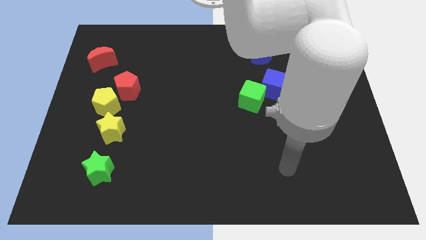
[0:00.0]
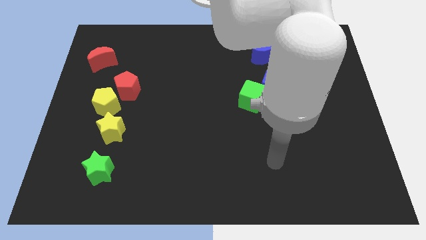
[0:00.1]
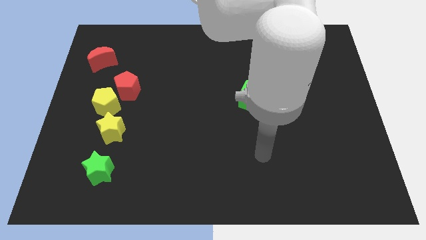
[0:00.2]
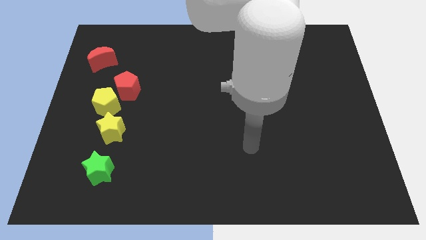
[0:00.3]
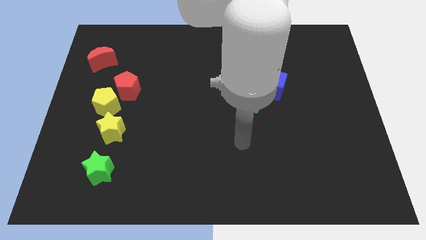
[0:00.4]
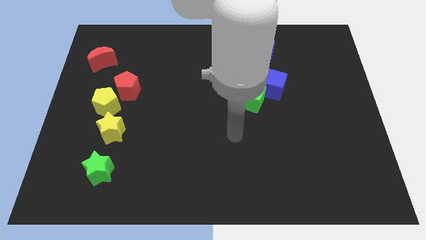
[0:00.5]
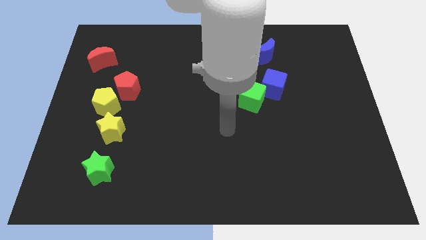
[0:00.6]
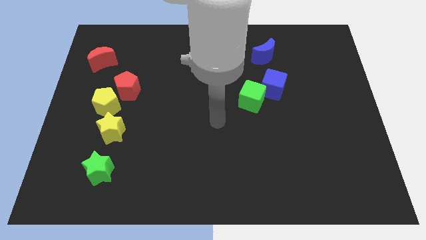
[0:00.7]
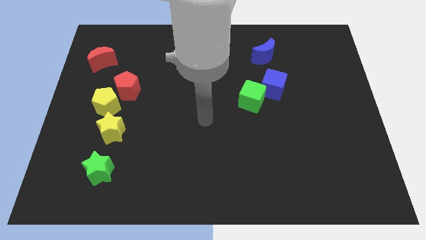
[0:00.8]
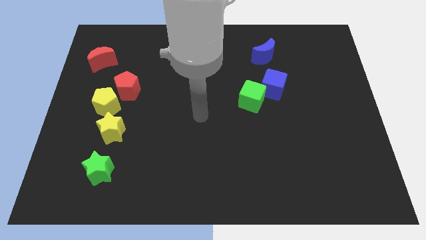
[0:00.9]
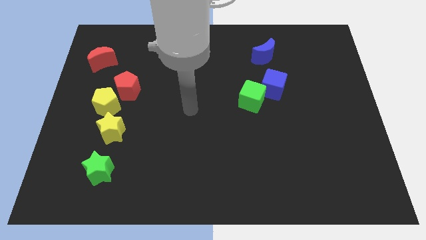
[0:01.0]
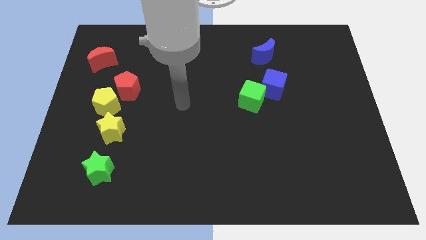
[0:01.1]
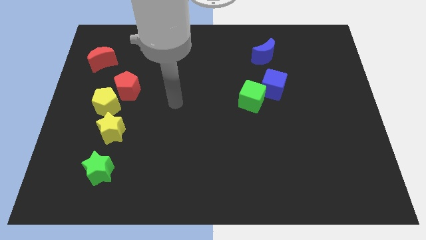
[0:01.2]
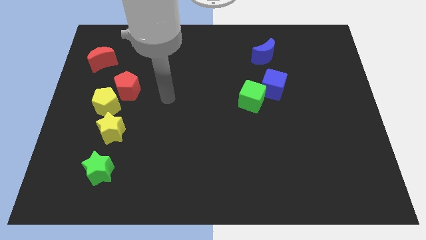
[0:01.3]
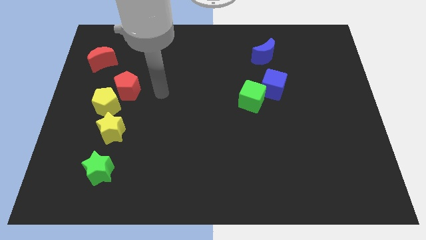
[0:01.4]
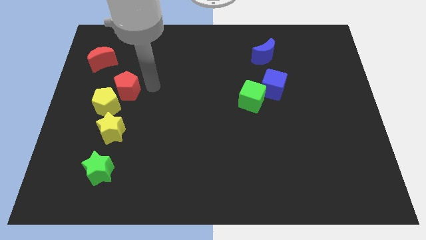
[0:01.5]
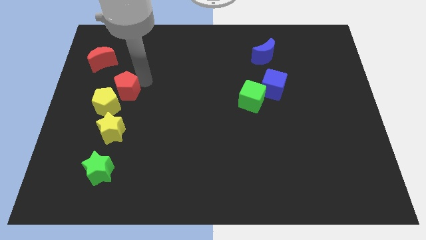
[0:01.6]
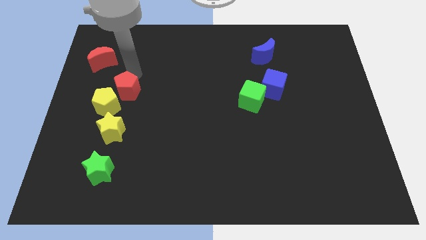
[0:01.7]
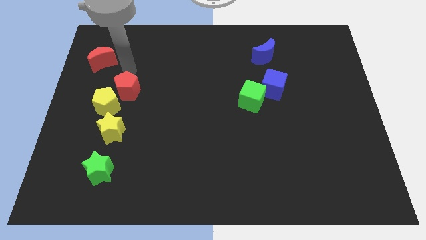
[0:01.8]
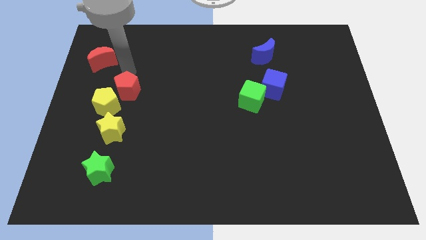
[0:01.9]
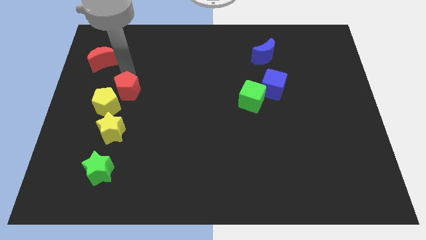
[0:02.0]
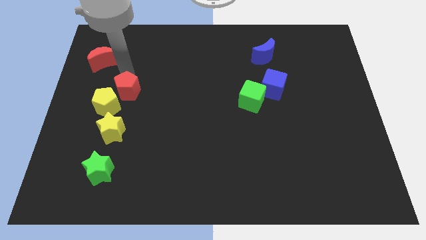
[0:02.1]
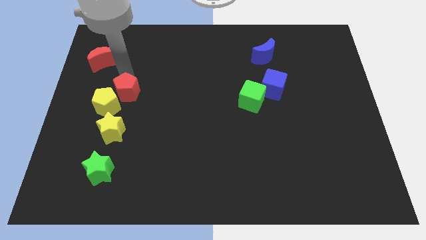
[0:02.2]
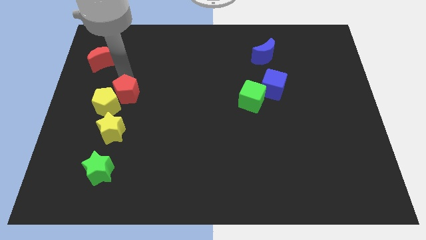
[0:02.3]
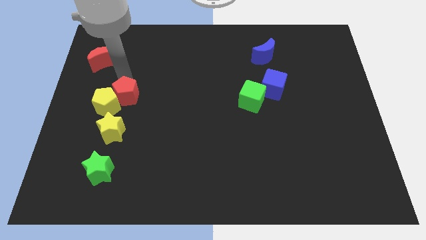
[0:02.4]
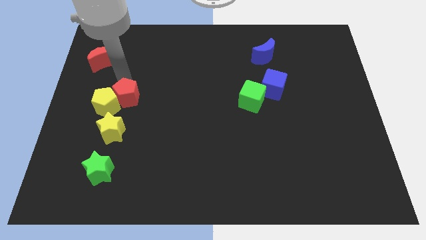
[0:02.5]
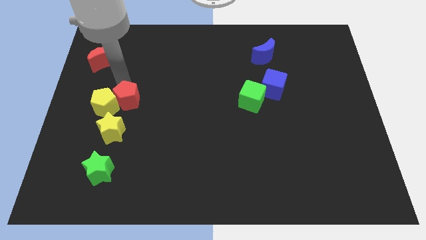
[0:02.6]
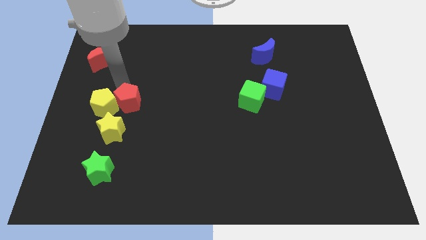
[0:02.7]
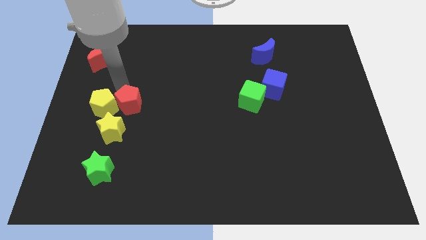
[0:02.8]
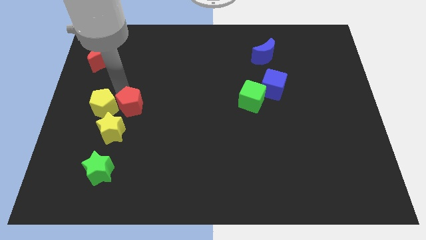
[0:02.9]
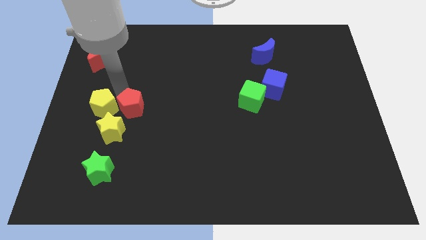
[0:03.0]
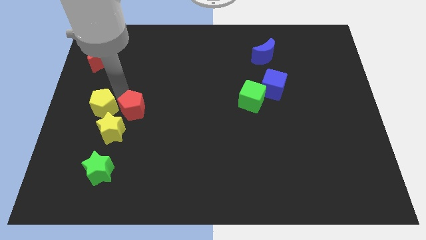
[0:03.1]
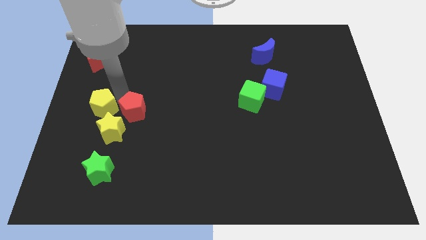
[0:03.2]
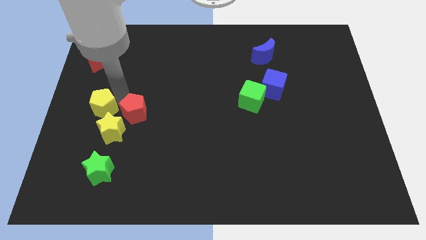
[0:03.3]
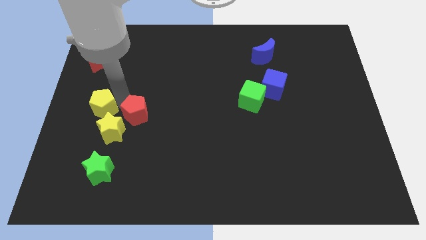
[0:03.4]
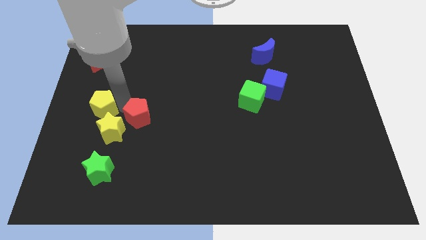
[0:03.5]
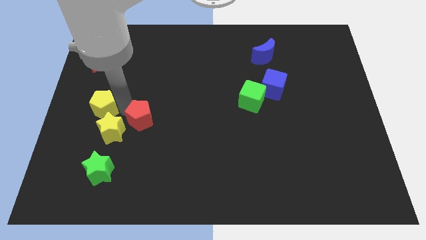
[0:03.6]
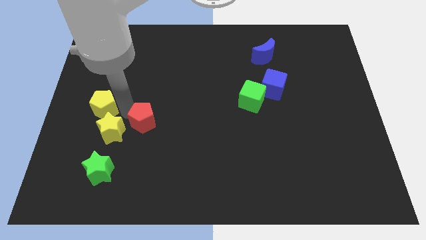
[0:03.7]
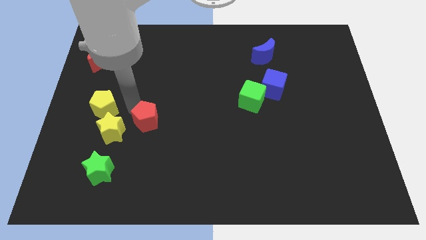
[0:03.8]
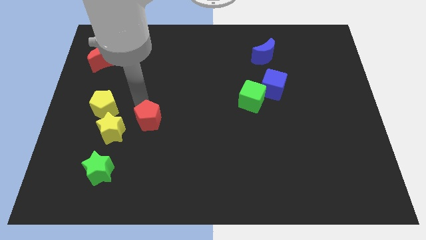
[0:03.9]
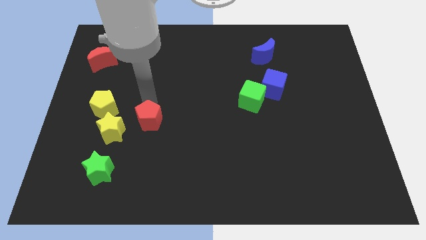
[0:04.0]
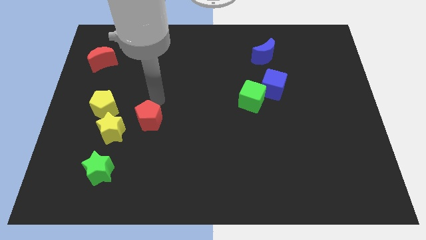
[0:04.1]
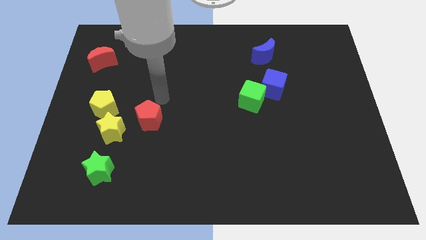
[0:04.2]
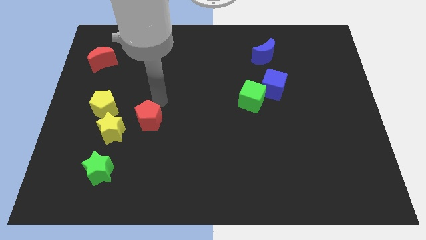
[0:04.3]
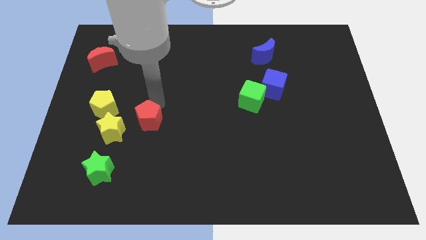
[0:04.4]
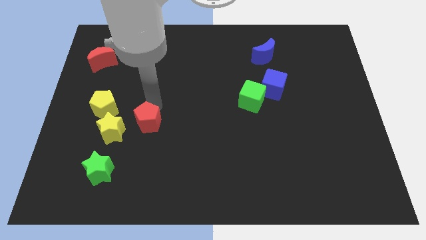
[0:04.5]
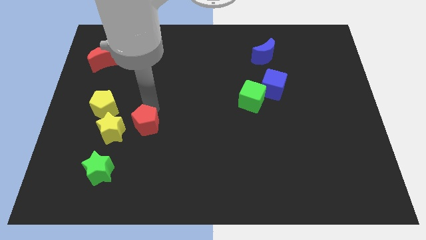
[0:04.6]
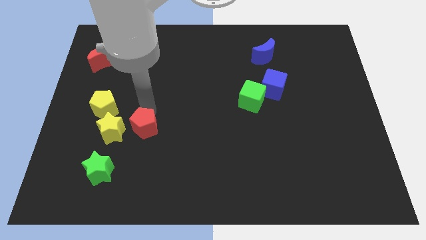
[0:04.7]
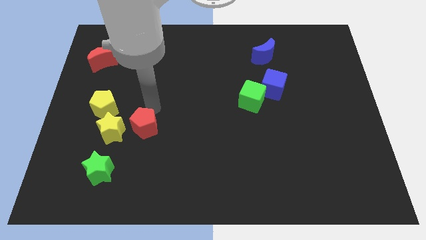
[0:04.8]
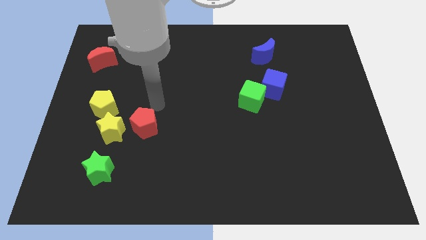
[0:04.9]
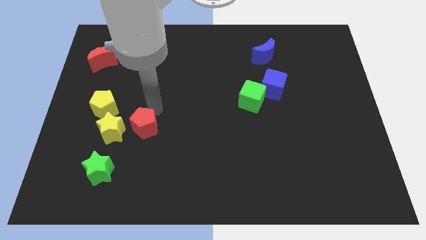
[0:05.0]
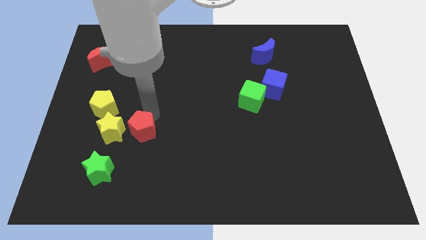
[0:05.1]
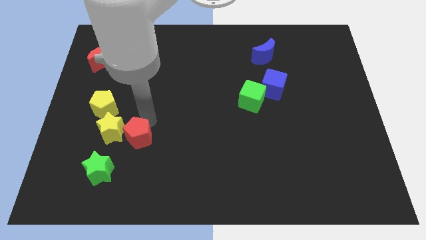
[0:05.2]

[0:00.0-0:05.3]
push the red pentagon to the bottom right side of the yellow star

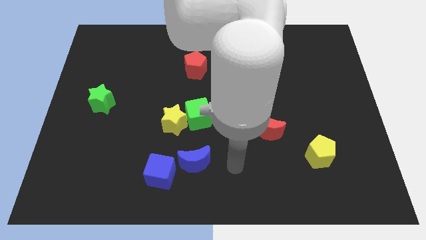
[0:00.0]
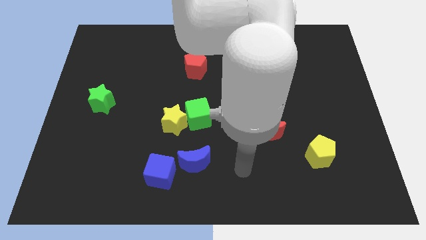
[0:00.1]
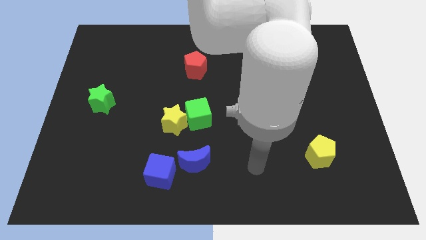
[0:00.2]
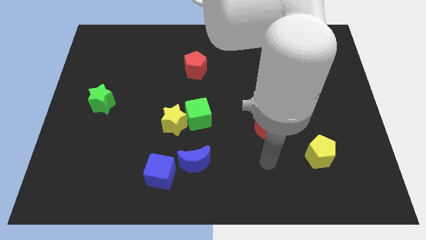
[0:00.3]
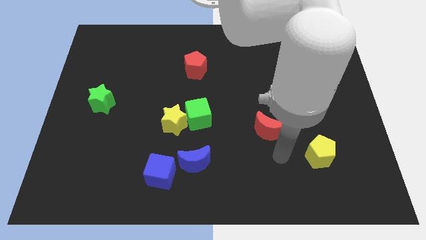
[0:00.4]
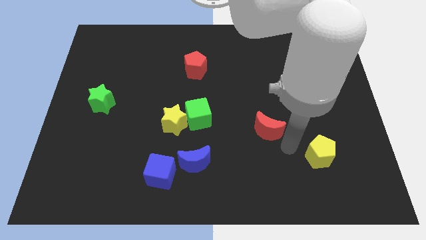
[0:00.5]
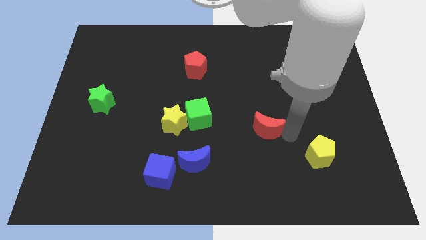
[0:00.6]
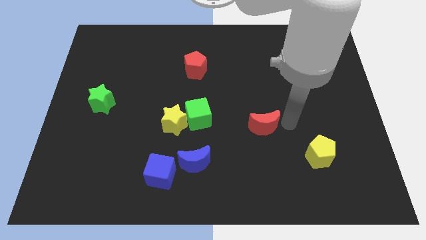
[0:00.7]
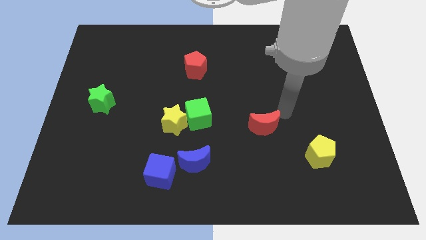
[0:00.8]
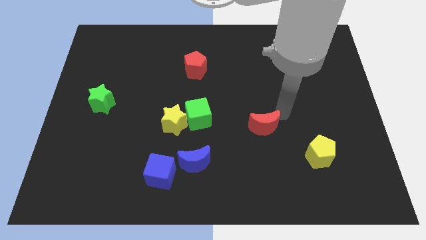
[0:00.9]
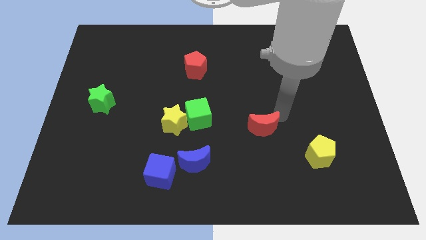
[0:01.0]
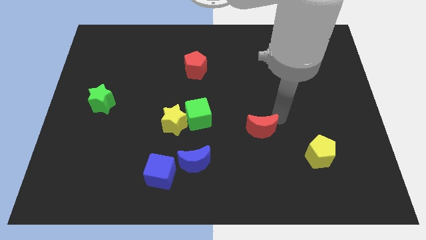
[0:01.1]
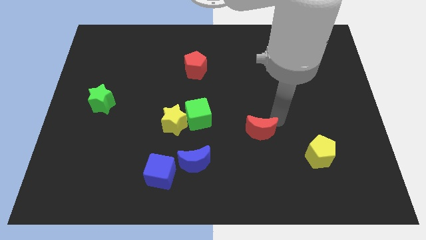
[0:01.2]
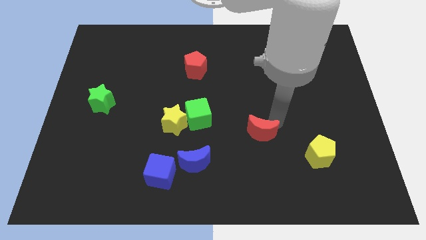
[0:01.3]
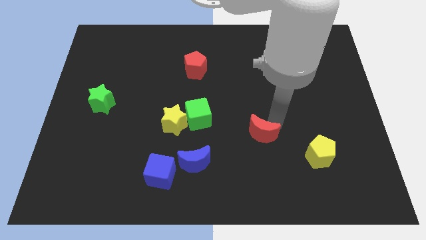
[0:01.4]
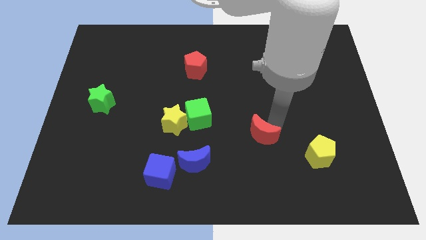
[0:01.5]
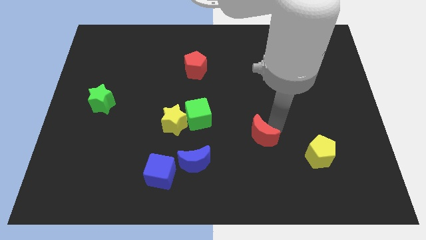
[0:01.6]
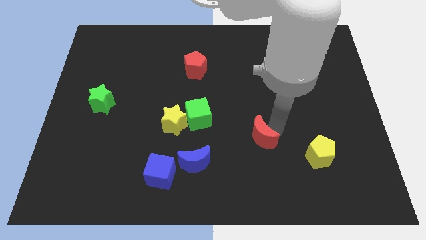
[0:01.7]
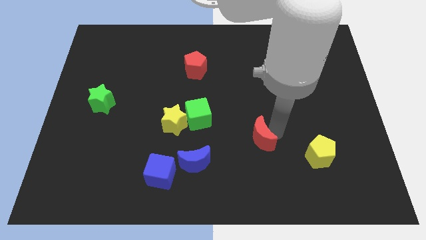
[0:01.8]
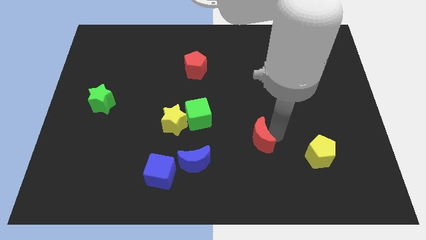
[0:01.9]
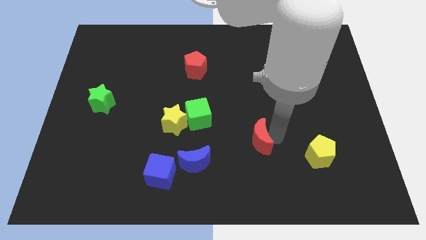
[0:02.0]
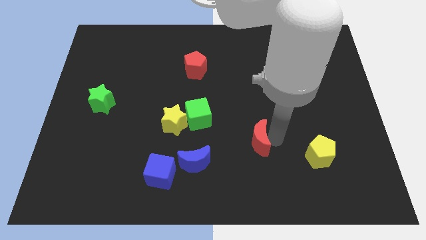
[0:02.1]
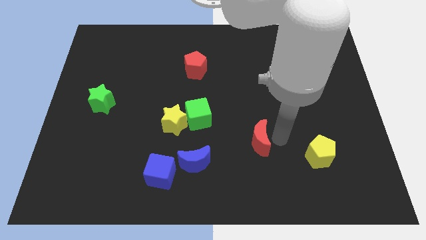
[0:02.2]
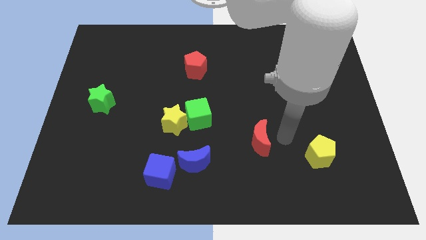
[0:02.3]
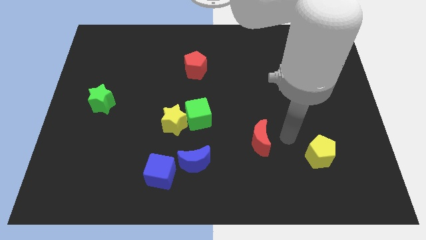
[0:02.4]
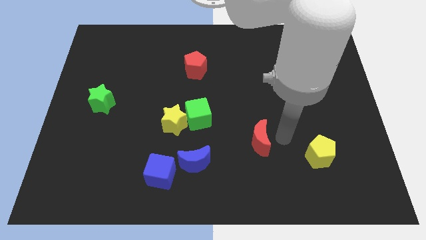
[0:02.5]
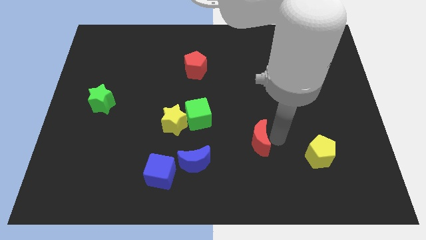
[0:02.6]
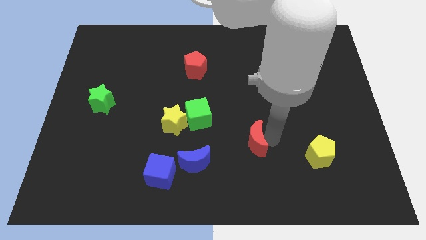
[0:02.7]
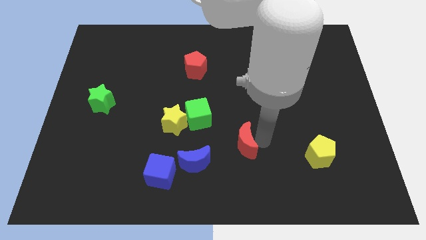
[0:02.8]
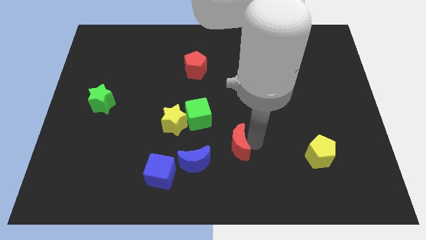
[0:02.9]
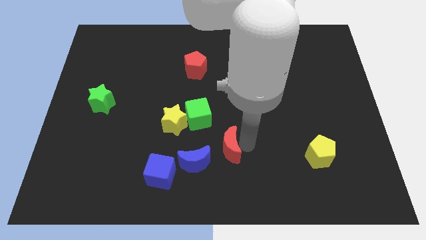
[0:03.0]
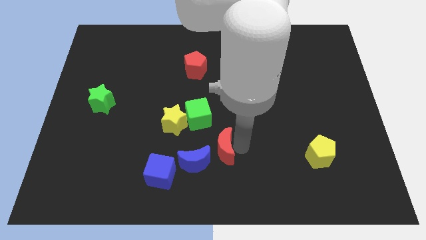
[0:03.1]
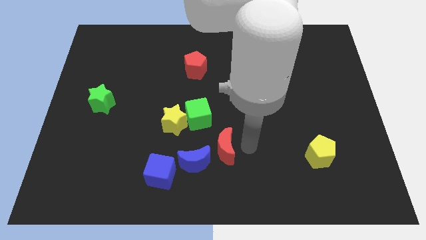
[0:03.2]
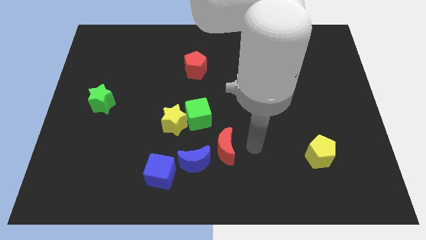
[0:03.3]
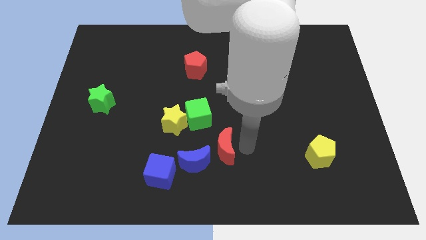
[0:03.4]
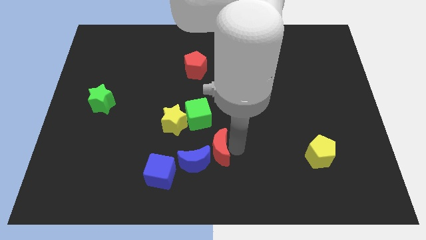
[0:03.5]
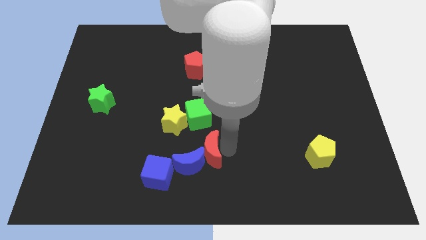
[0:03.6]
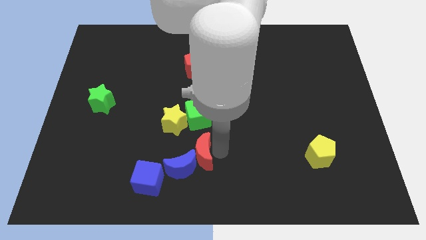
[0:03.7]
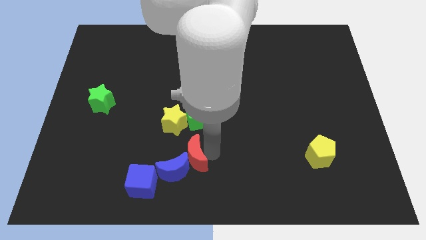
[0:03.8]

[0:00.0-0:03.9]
put the red moon to the top right side of the blue cube
